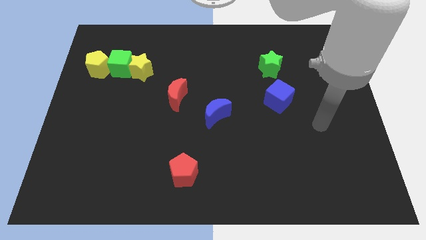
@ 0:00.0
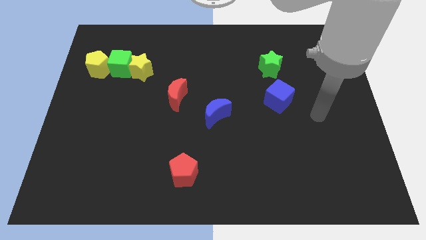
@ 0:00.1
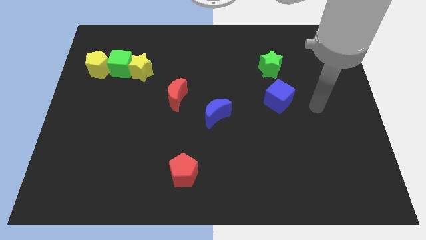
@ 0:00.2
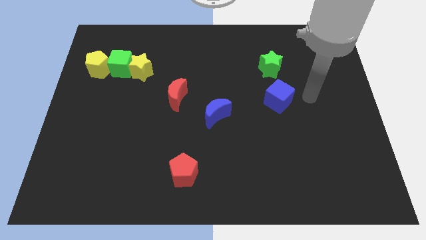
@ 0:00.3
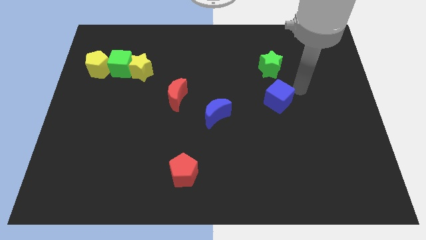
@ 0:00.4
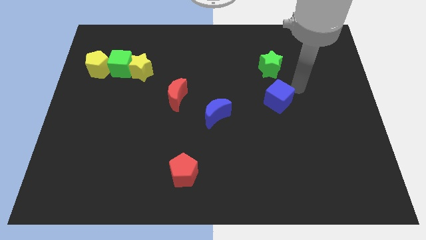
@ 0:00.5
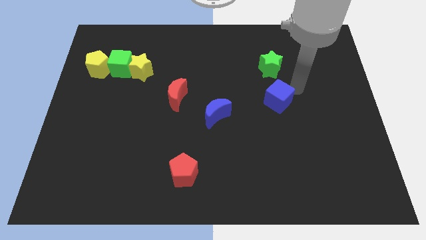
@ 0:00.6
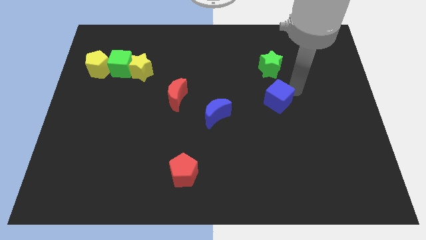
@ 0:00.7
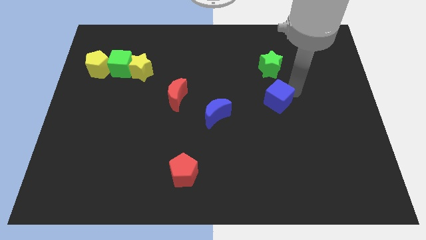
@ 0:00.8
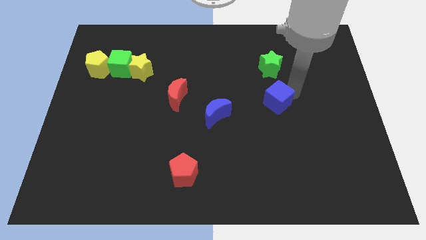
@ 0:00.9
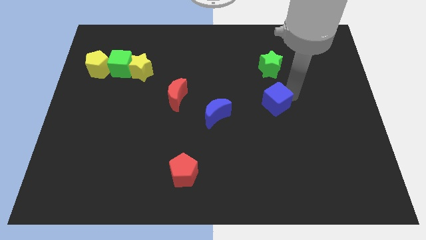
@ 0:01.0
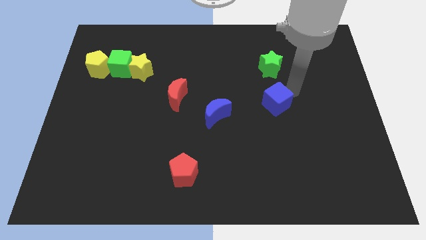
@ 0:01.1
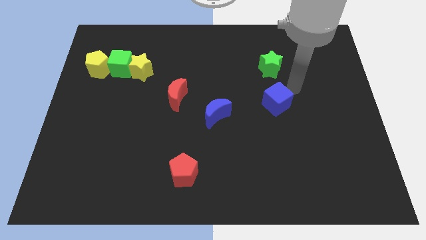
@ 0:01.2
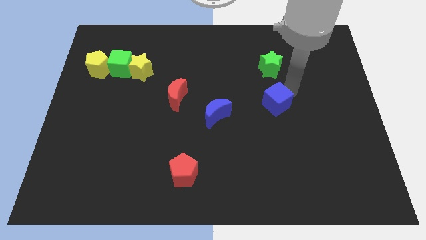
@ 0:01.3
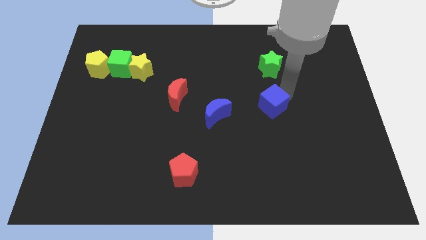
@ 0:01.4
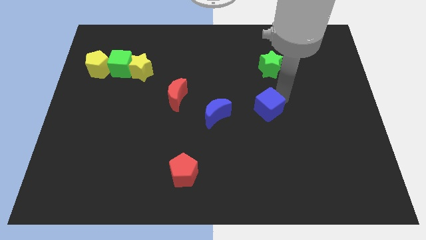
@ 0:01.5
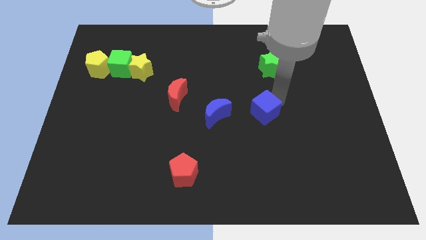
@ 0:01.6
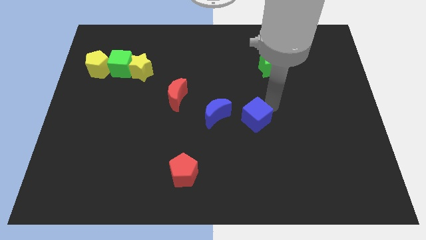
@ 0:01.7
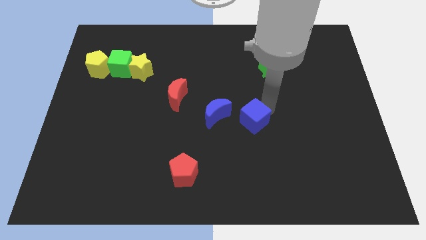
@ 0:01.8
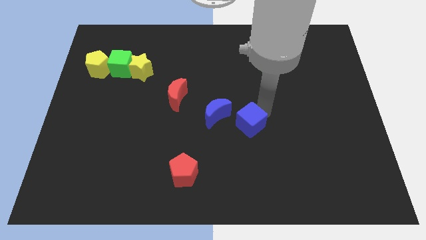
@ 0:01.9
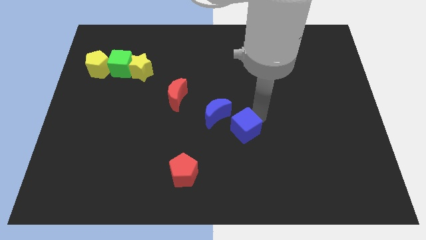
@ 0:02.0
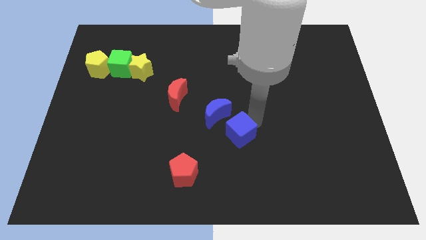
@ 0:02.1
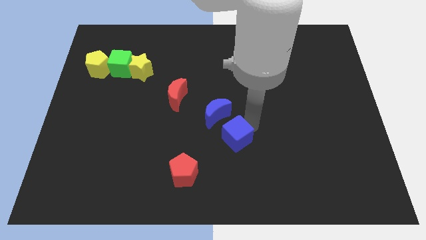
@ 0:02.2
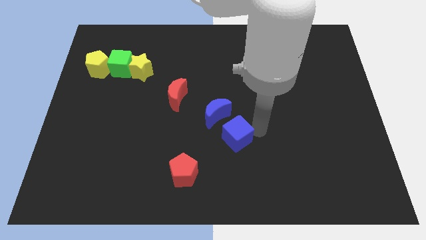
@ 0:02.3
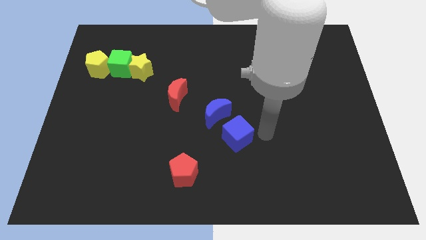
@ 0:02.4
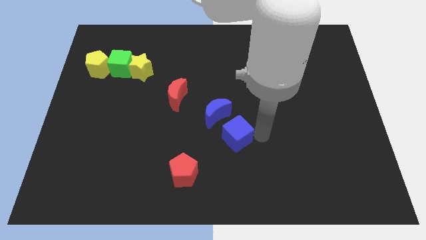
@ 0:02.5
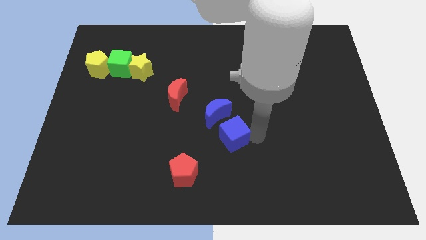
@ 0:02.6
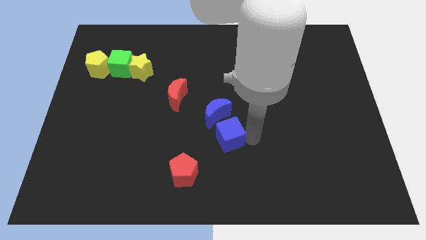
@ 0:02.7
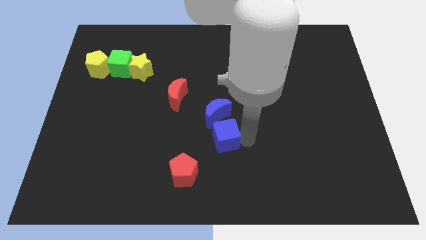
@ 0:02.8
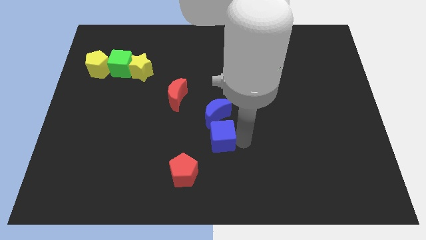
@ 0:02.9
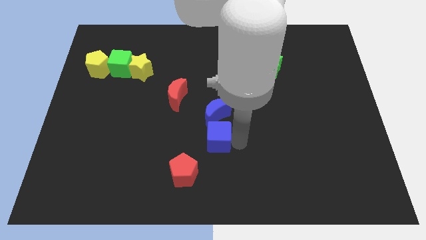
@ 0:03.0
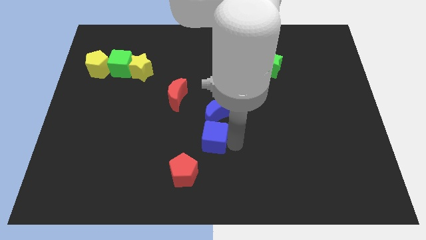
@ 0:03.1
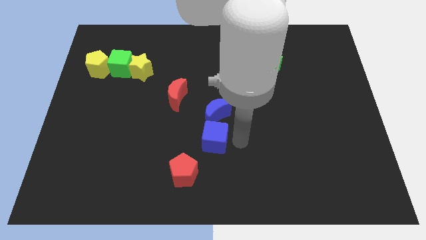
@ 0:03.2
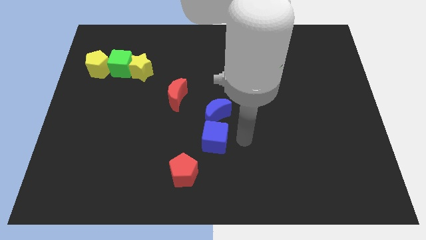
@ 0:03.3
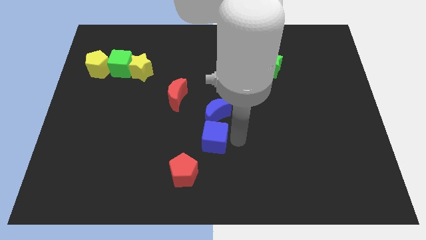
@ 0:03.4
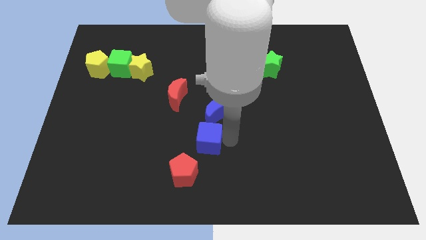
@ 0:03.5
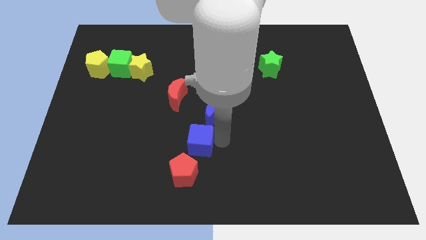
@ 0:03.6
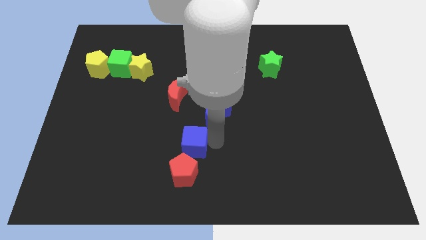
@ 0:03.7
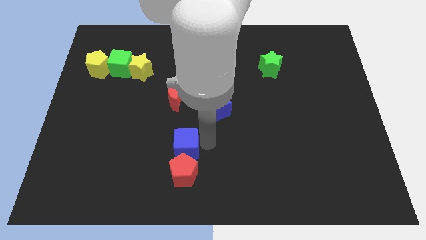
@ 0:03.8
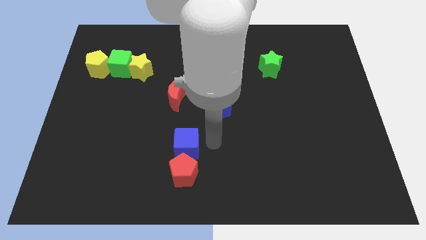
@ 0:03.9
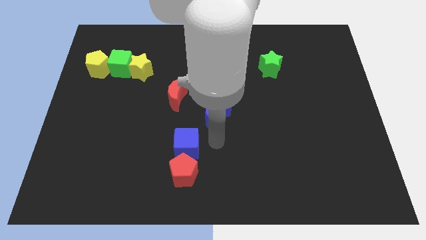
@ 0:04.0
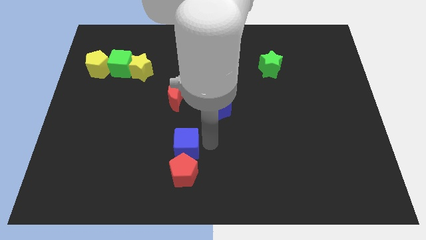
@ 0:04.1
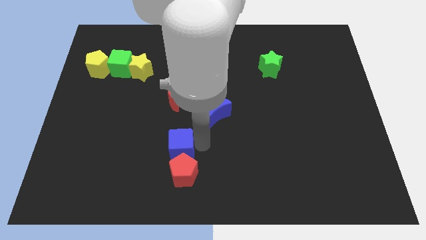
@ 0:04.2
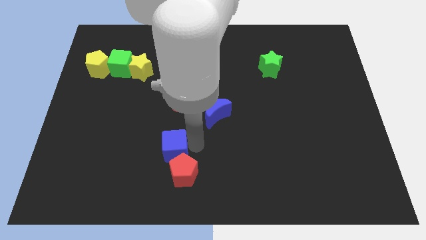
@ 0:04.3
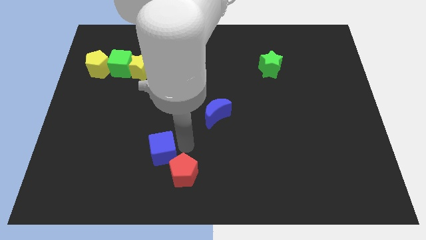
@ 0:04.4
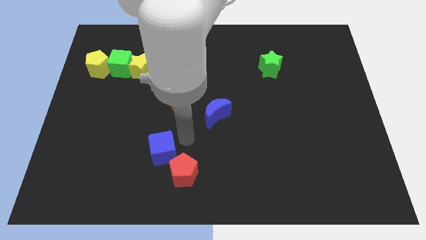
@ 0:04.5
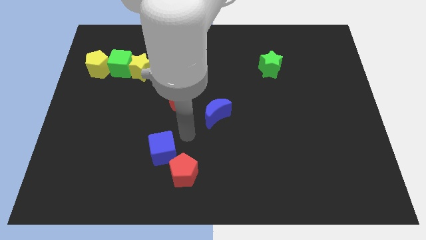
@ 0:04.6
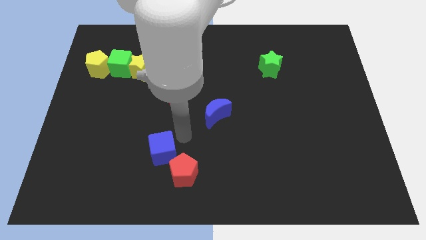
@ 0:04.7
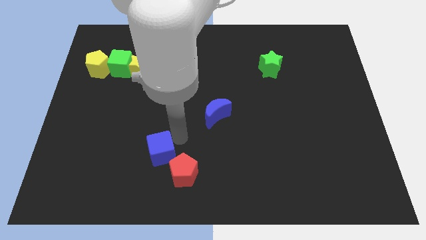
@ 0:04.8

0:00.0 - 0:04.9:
push the blue cube left of the red pentagon

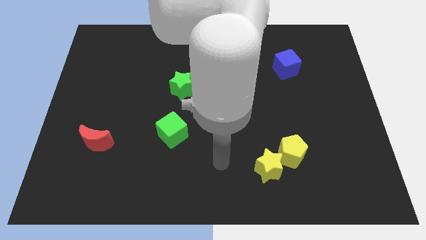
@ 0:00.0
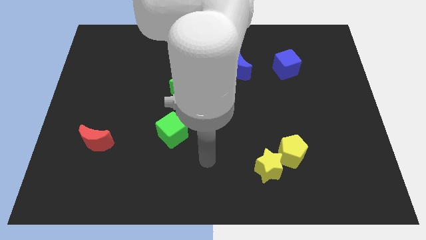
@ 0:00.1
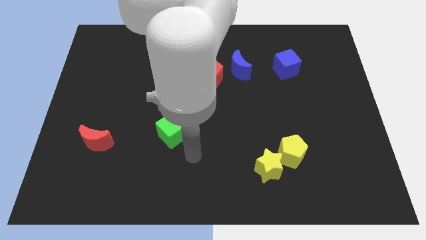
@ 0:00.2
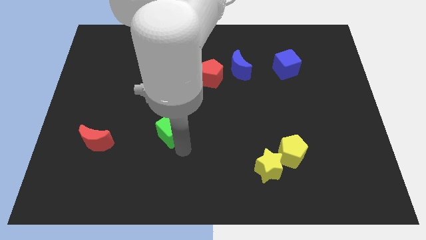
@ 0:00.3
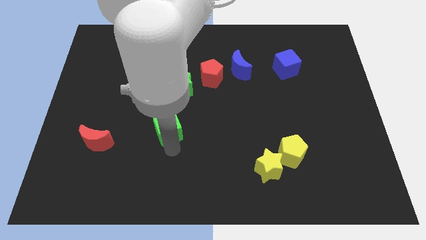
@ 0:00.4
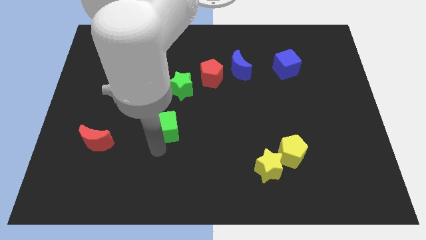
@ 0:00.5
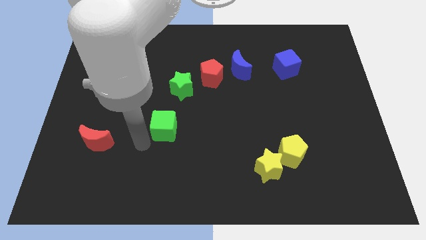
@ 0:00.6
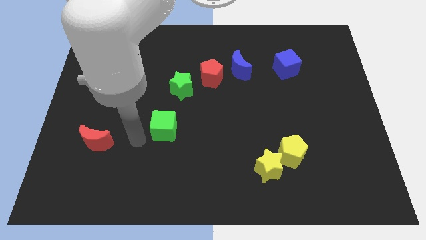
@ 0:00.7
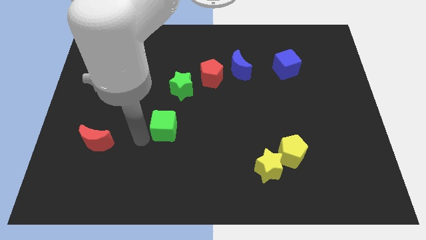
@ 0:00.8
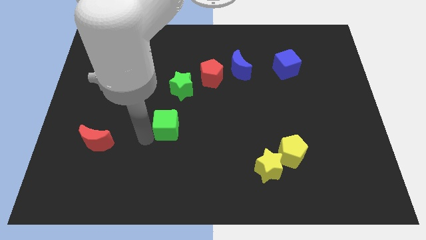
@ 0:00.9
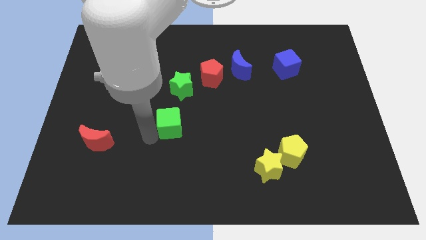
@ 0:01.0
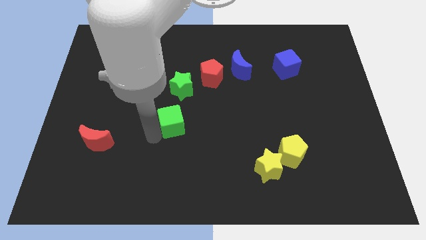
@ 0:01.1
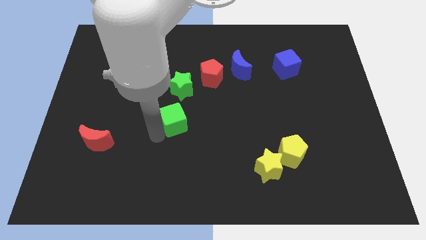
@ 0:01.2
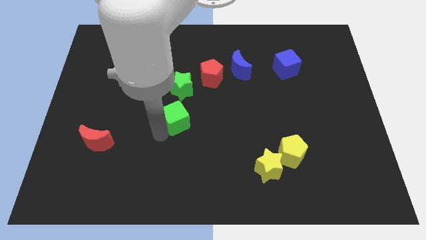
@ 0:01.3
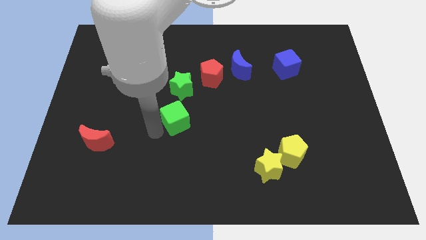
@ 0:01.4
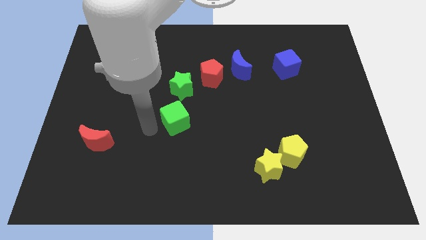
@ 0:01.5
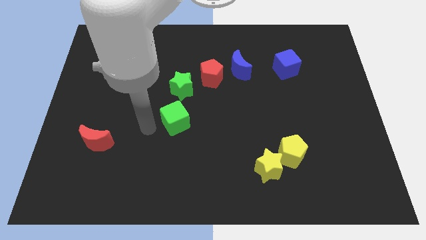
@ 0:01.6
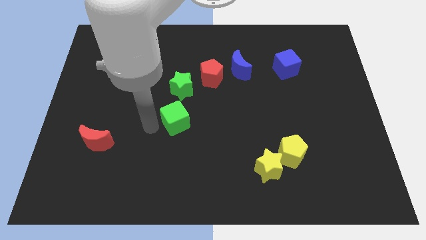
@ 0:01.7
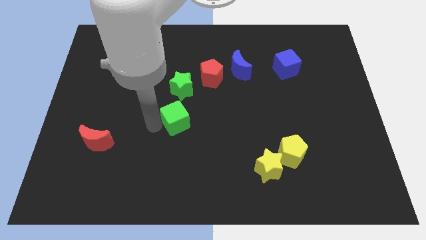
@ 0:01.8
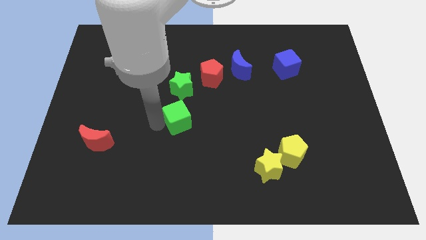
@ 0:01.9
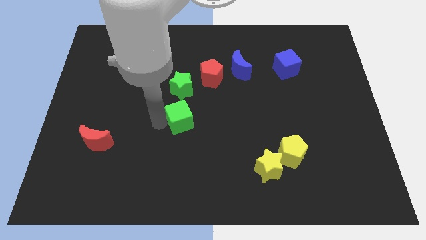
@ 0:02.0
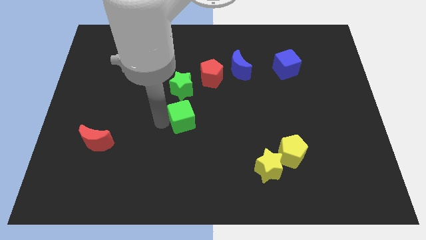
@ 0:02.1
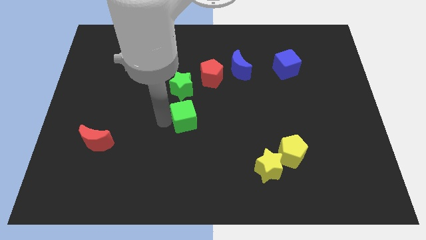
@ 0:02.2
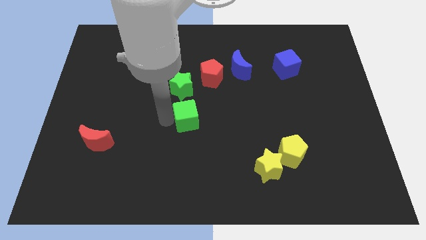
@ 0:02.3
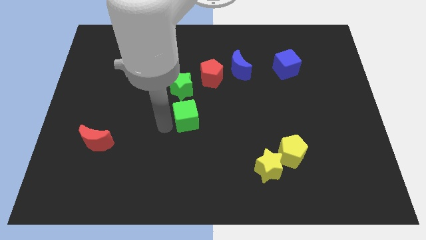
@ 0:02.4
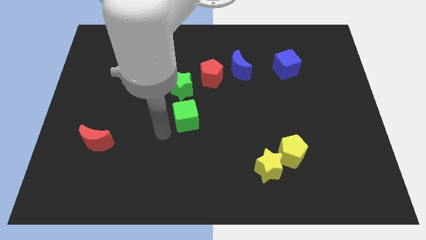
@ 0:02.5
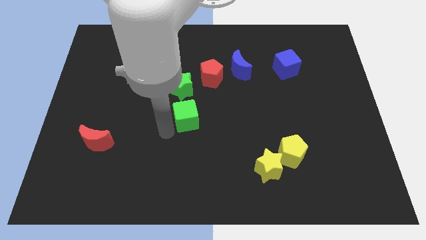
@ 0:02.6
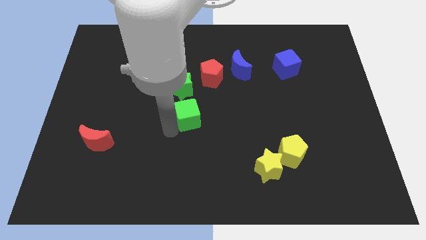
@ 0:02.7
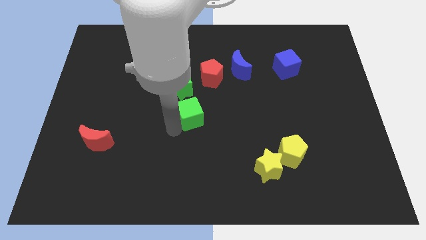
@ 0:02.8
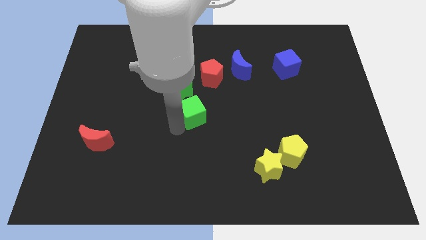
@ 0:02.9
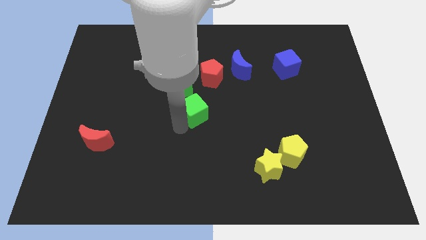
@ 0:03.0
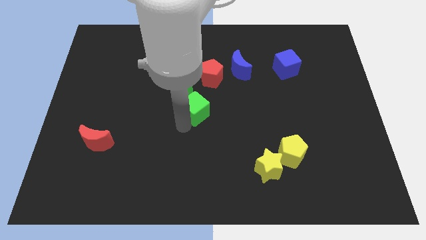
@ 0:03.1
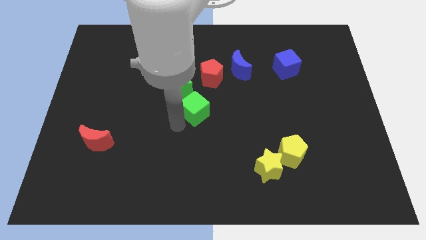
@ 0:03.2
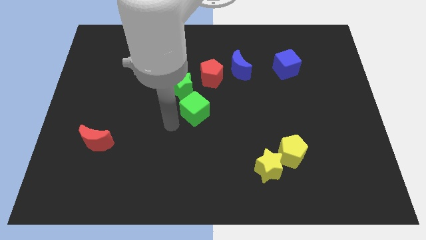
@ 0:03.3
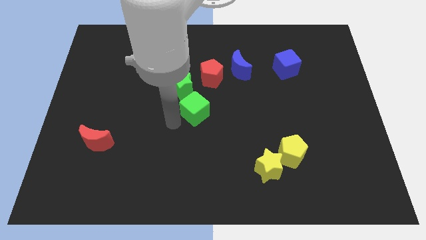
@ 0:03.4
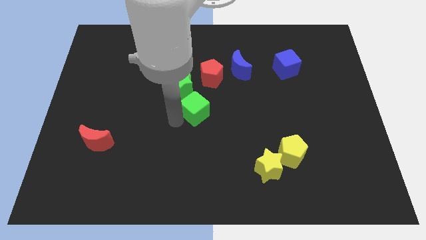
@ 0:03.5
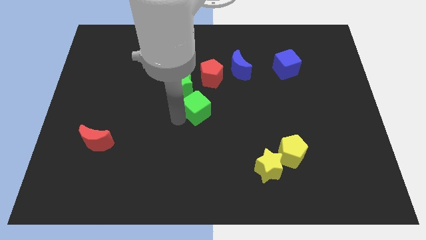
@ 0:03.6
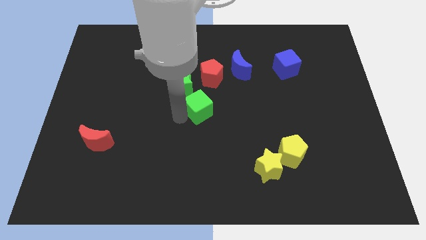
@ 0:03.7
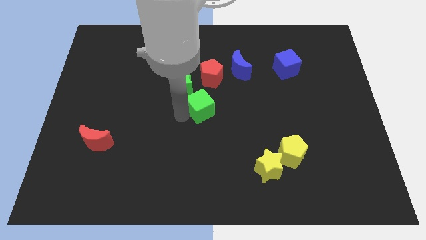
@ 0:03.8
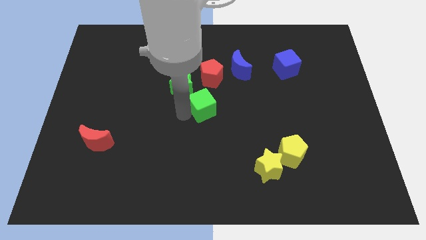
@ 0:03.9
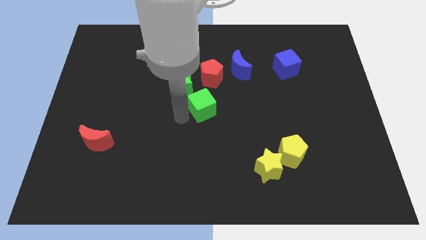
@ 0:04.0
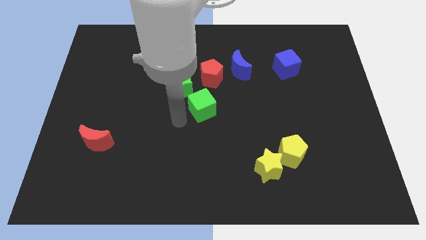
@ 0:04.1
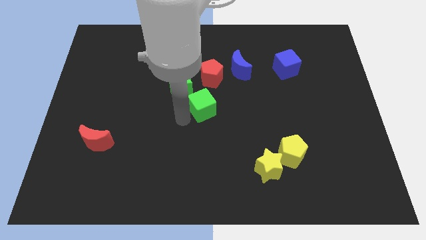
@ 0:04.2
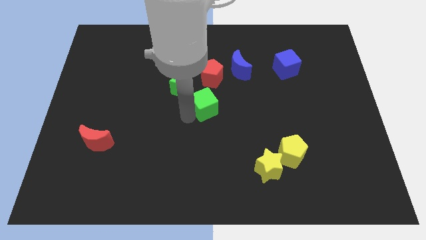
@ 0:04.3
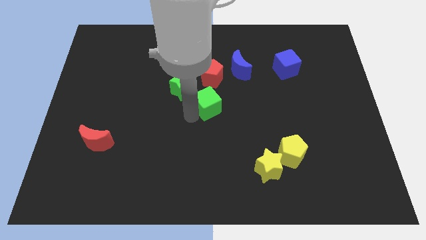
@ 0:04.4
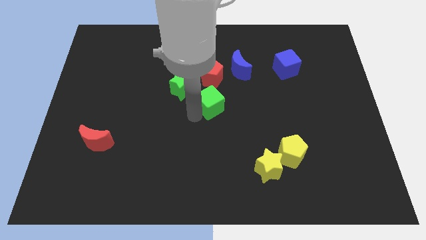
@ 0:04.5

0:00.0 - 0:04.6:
put the green cube just right of the green star
